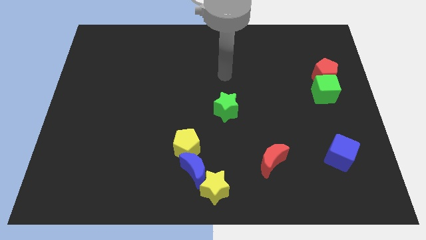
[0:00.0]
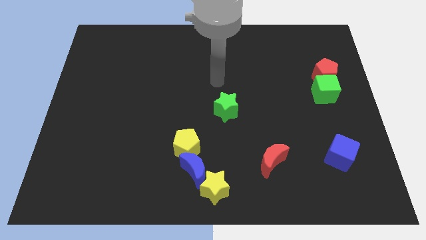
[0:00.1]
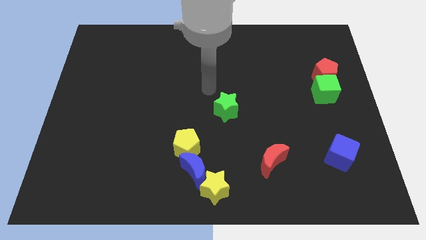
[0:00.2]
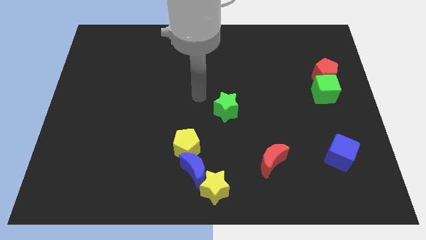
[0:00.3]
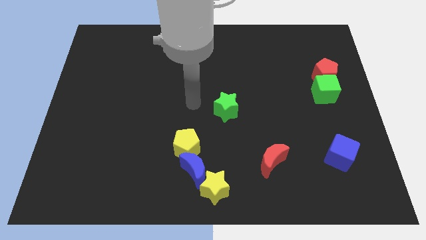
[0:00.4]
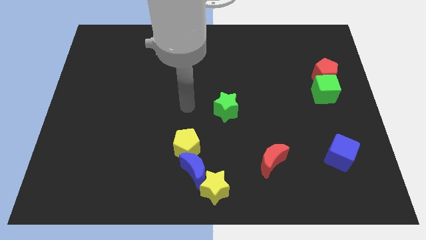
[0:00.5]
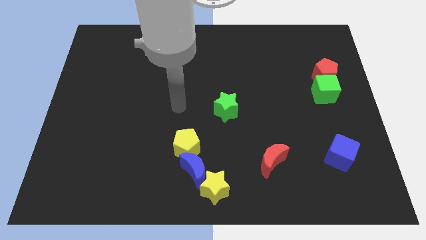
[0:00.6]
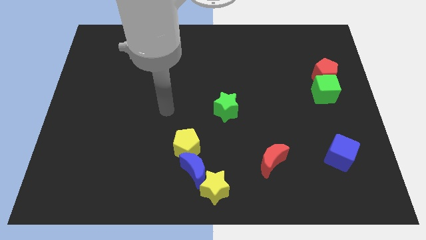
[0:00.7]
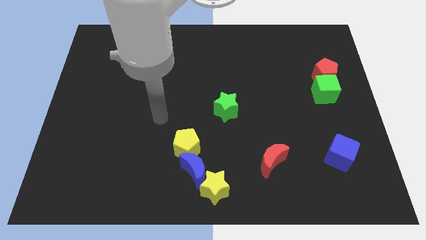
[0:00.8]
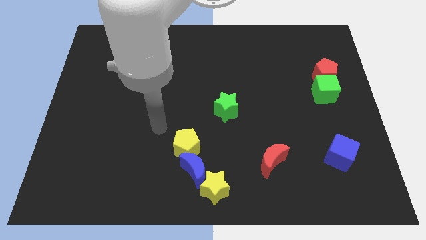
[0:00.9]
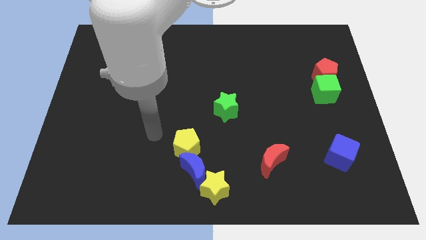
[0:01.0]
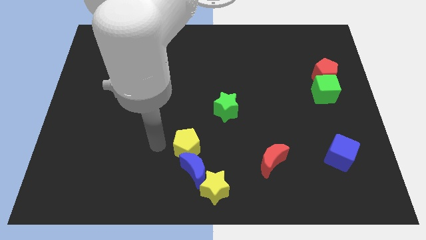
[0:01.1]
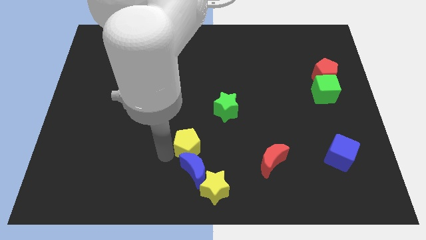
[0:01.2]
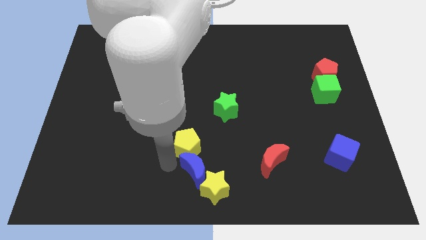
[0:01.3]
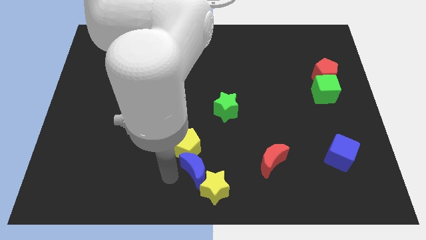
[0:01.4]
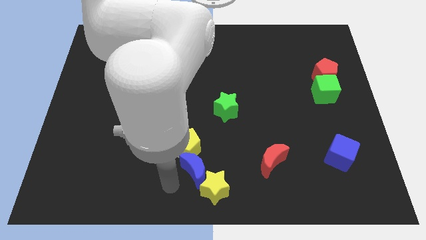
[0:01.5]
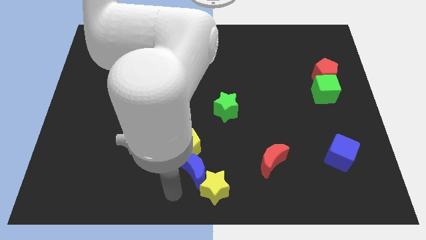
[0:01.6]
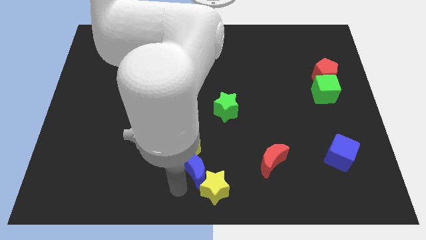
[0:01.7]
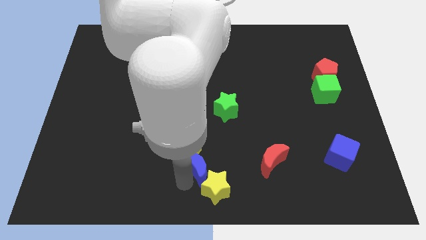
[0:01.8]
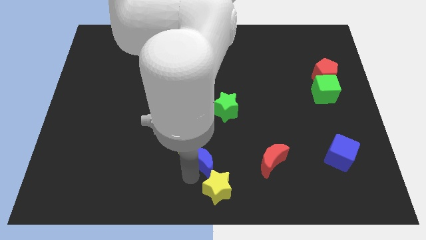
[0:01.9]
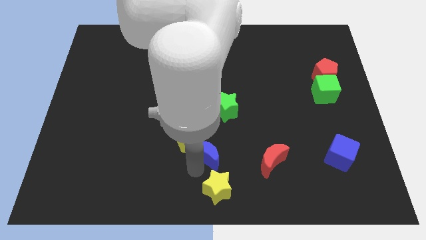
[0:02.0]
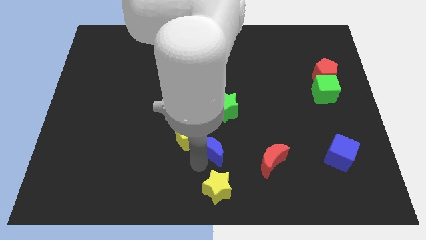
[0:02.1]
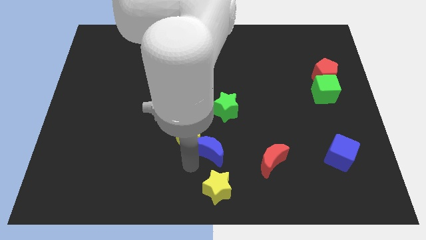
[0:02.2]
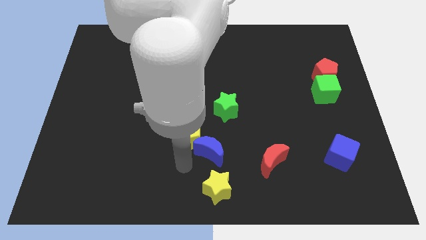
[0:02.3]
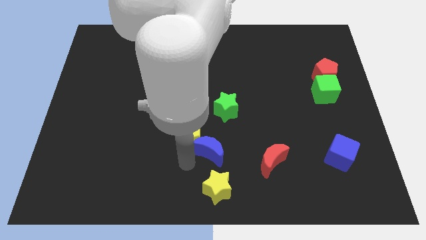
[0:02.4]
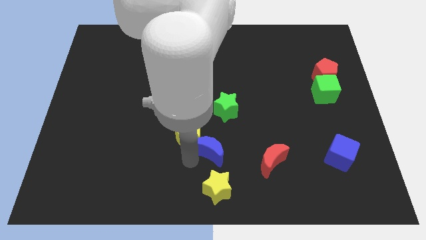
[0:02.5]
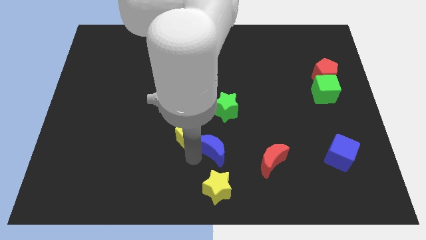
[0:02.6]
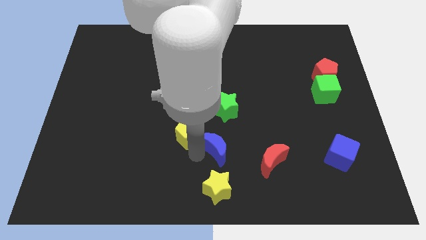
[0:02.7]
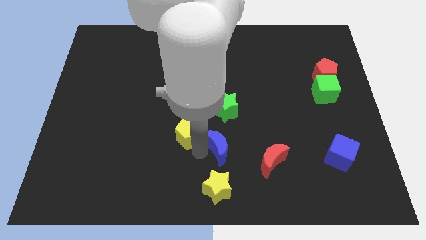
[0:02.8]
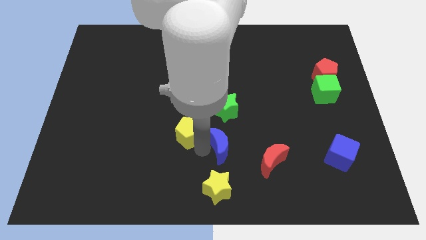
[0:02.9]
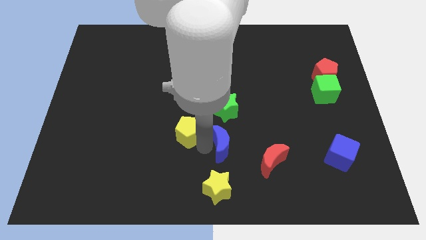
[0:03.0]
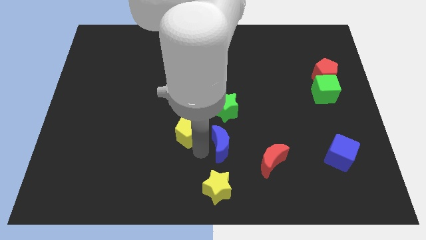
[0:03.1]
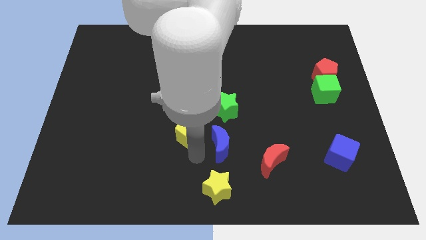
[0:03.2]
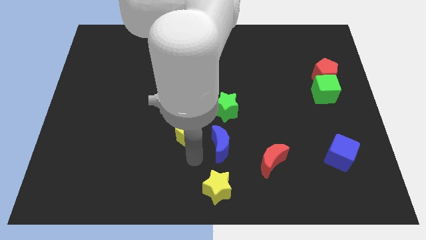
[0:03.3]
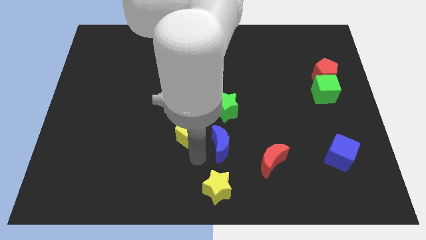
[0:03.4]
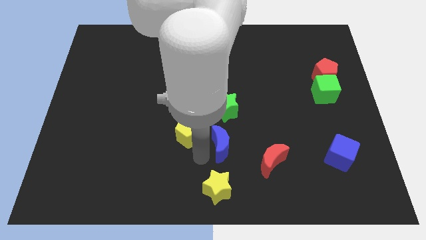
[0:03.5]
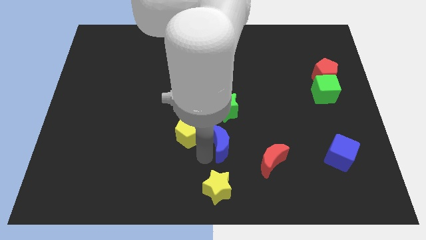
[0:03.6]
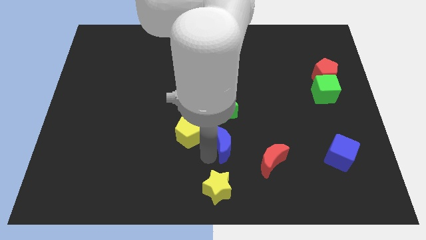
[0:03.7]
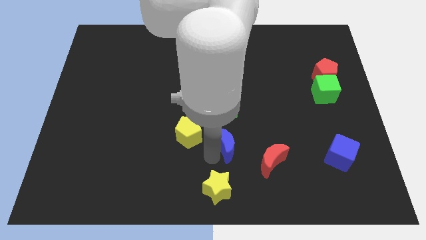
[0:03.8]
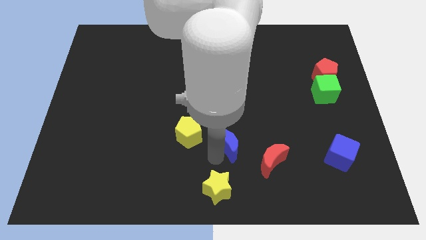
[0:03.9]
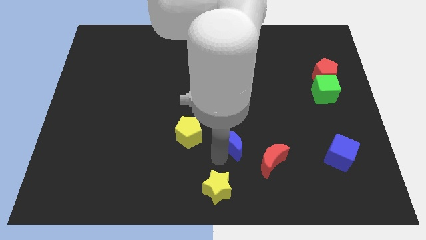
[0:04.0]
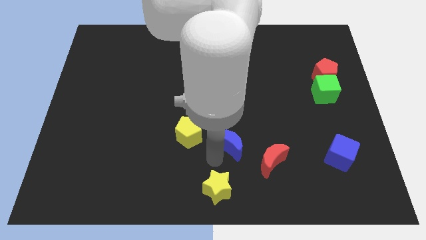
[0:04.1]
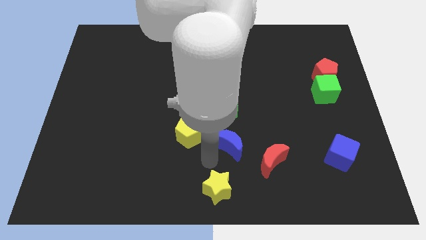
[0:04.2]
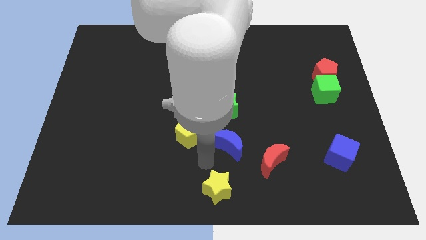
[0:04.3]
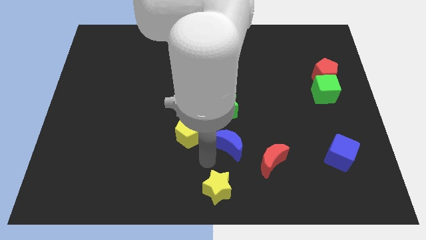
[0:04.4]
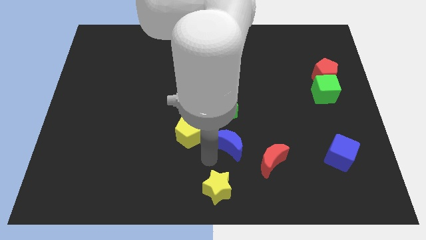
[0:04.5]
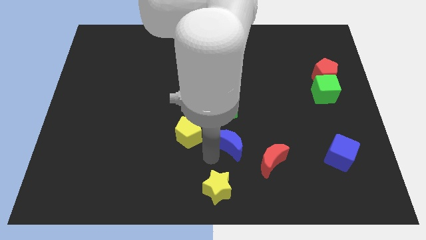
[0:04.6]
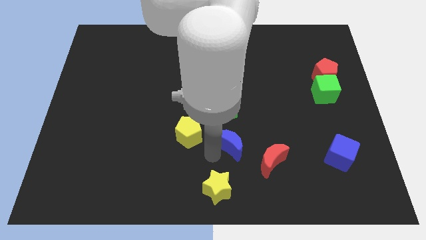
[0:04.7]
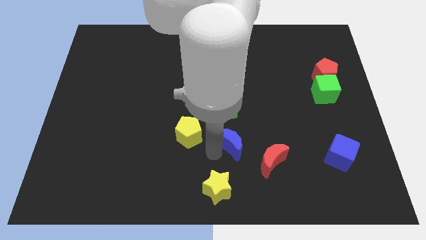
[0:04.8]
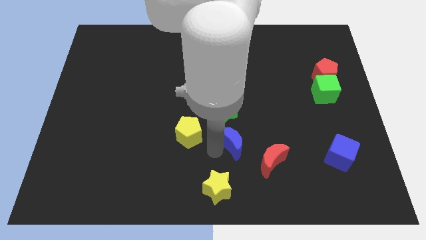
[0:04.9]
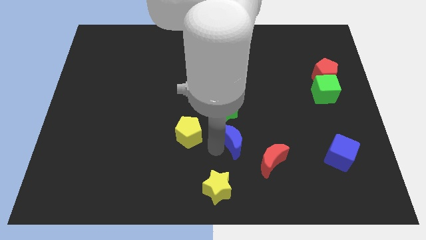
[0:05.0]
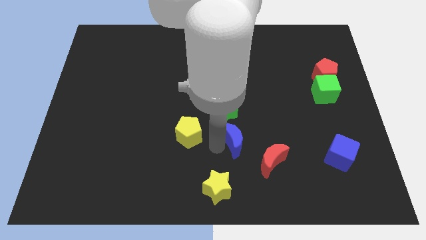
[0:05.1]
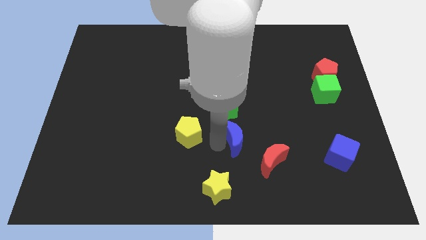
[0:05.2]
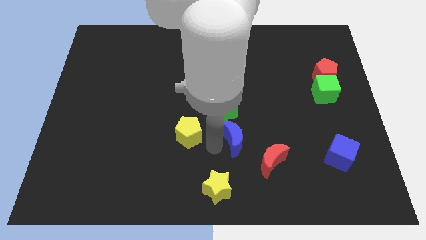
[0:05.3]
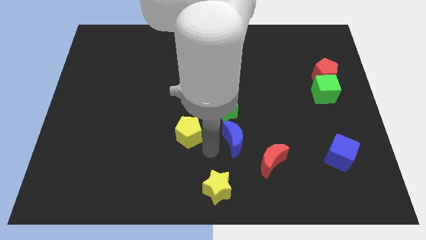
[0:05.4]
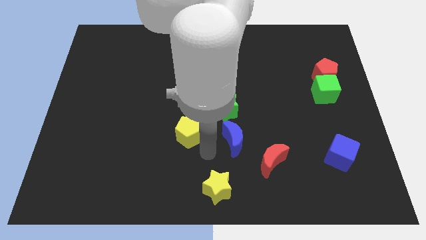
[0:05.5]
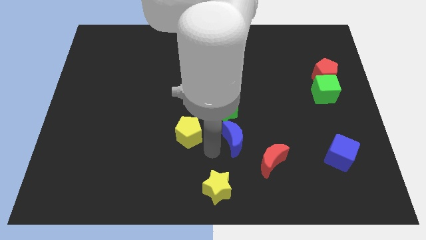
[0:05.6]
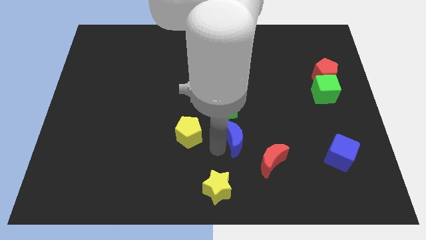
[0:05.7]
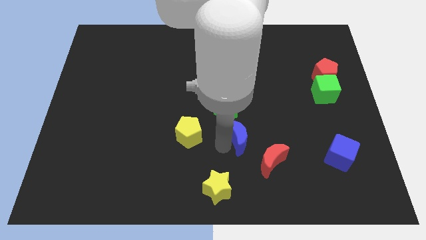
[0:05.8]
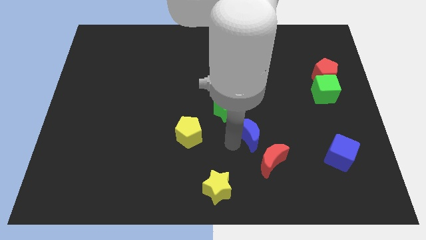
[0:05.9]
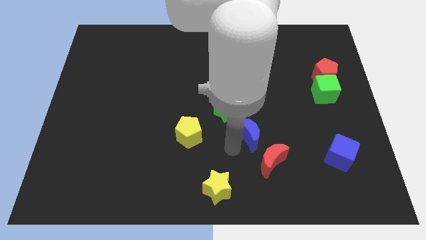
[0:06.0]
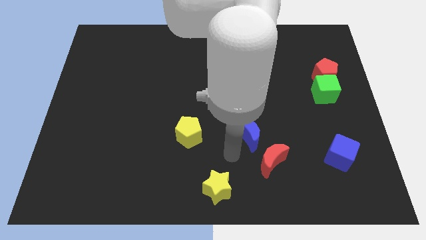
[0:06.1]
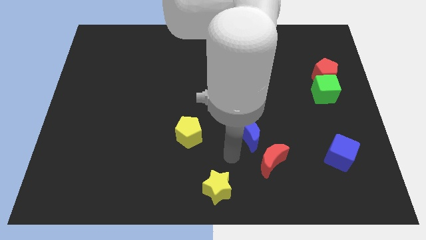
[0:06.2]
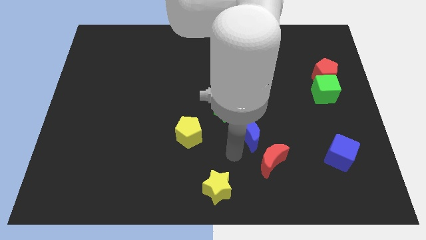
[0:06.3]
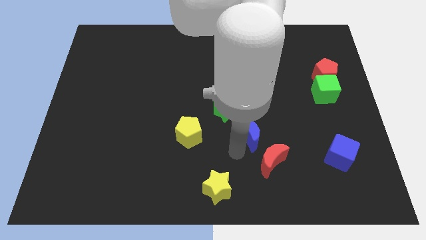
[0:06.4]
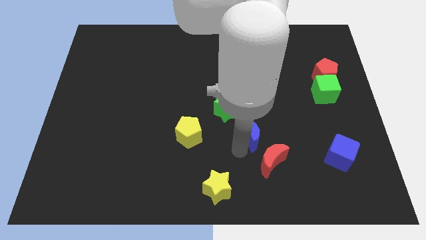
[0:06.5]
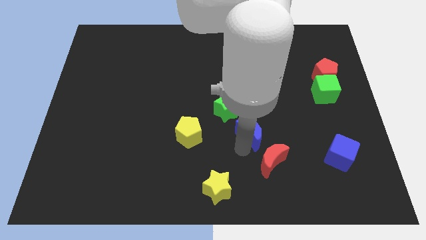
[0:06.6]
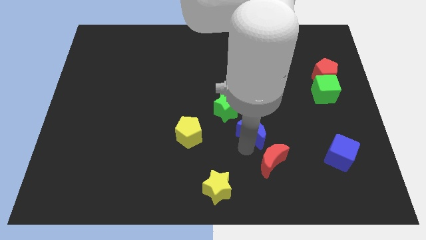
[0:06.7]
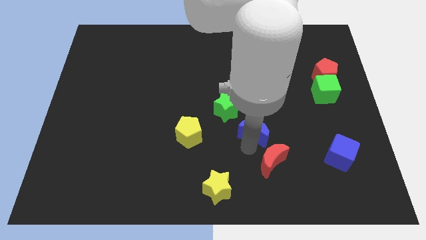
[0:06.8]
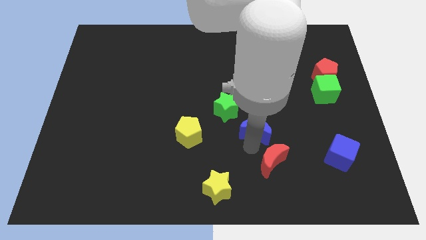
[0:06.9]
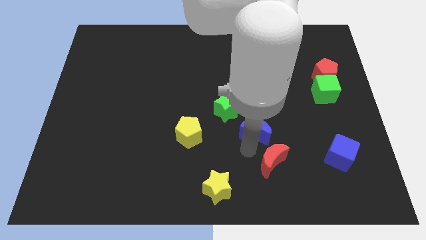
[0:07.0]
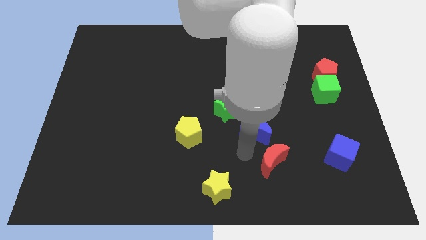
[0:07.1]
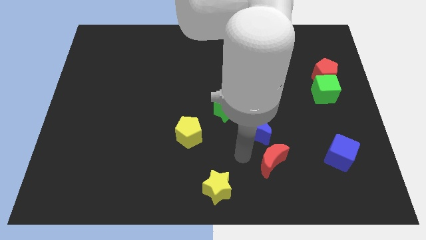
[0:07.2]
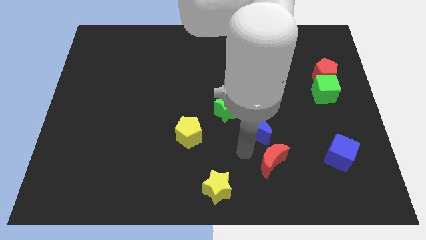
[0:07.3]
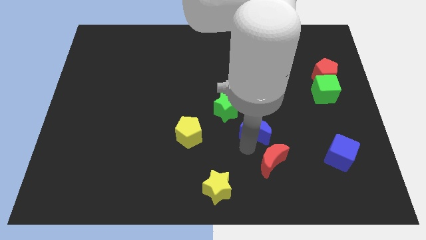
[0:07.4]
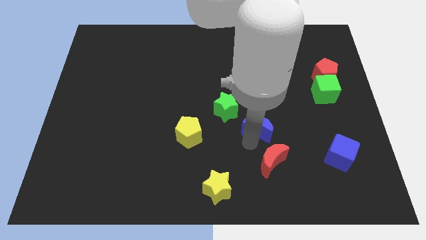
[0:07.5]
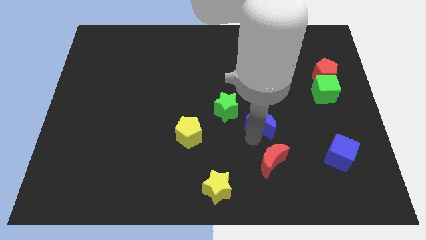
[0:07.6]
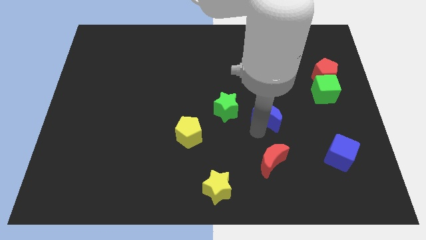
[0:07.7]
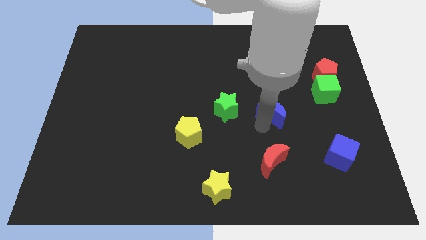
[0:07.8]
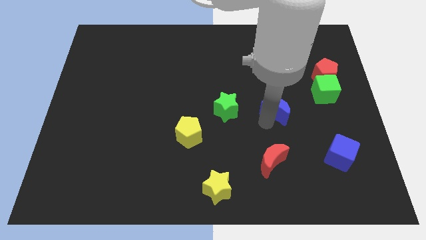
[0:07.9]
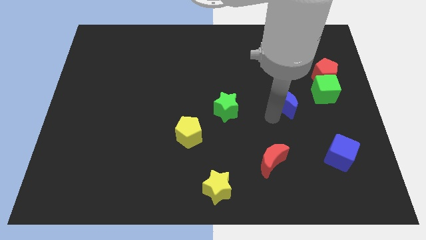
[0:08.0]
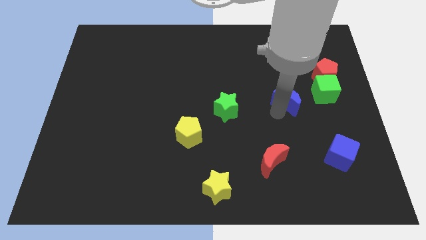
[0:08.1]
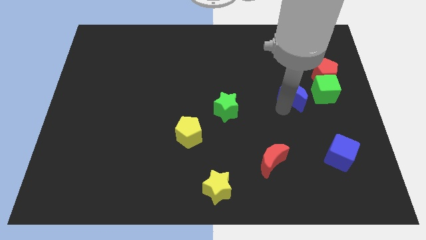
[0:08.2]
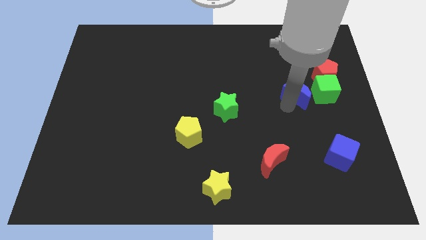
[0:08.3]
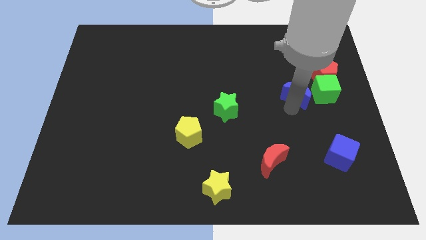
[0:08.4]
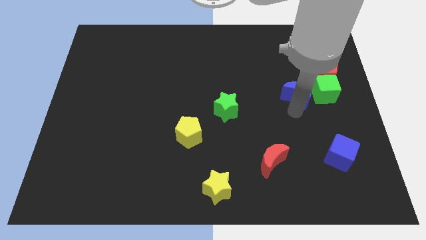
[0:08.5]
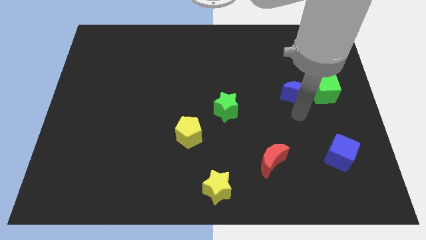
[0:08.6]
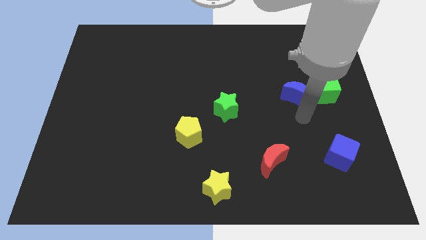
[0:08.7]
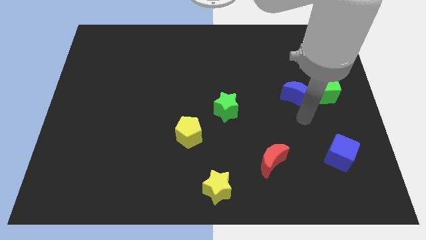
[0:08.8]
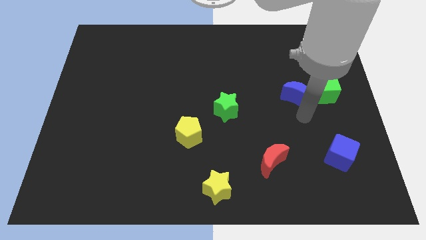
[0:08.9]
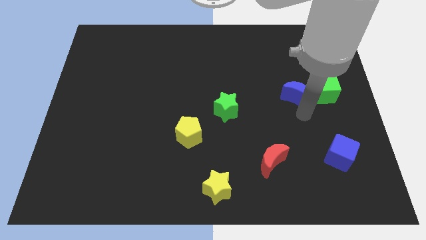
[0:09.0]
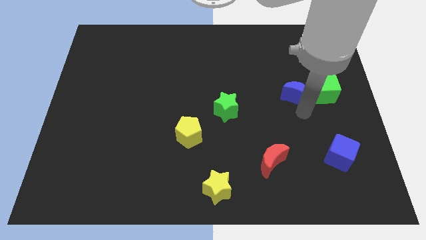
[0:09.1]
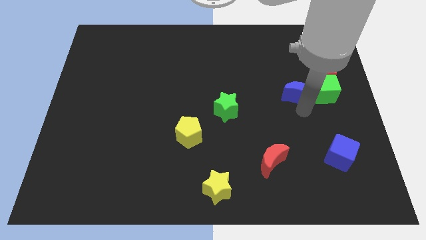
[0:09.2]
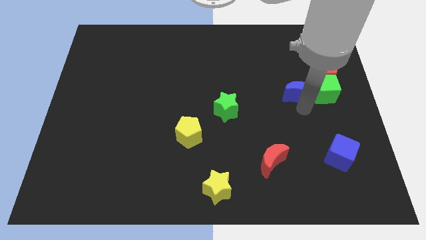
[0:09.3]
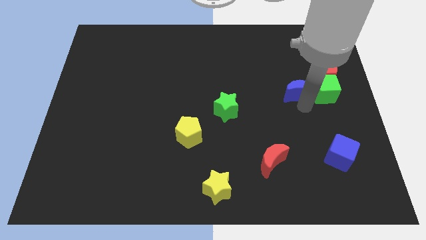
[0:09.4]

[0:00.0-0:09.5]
slide the blue moon to the top left of the green cube
